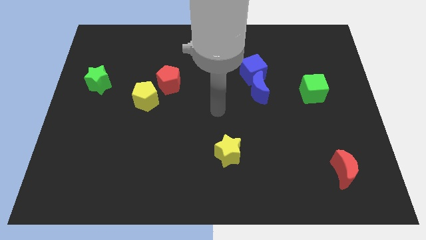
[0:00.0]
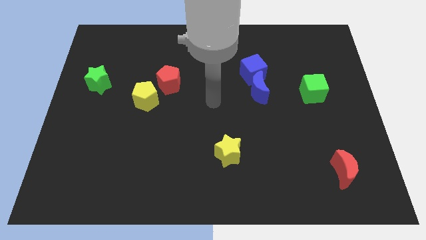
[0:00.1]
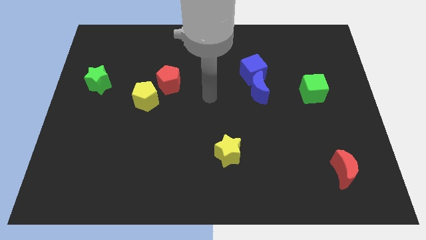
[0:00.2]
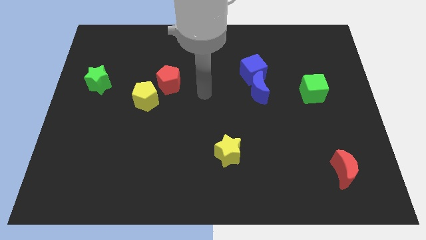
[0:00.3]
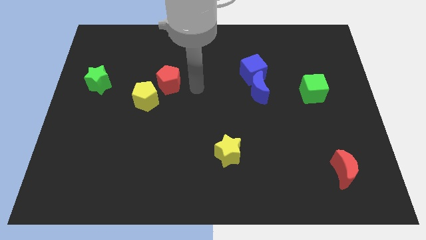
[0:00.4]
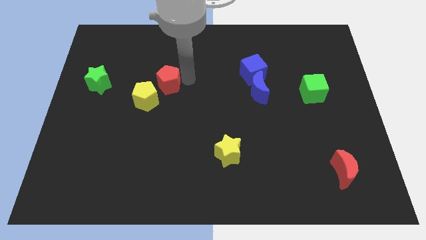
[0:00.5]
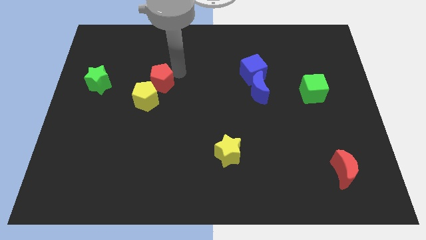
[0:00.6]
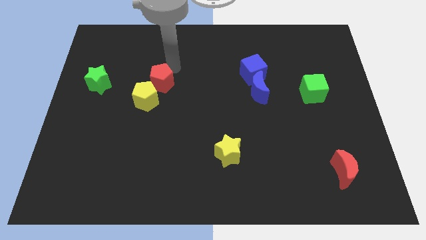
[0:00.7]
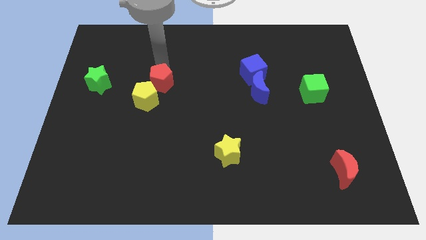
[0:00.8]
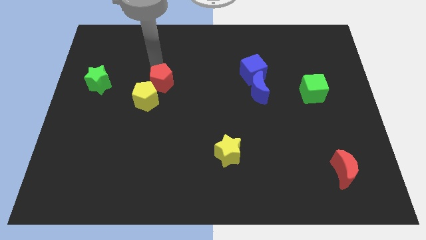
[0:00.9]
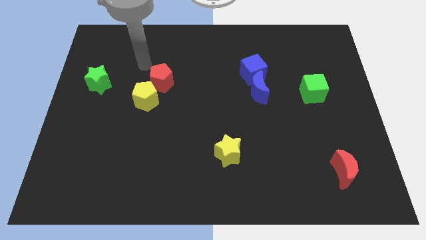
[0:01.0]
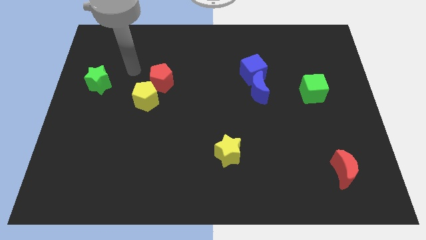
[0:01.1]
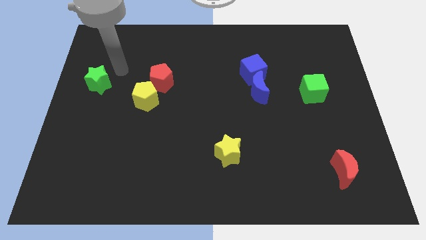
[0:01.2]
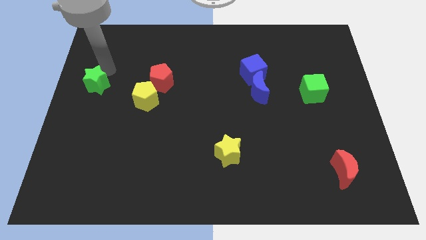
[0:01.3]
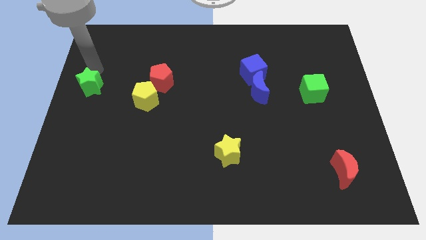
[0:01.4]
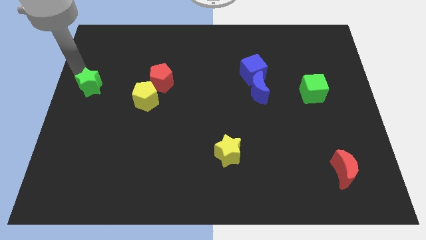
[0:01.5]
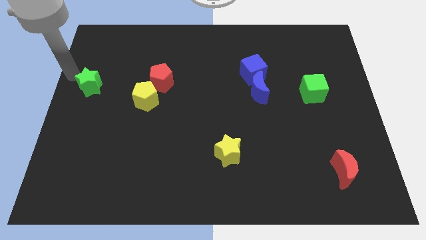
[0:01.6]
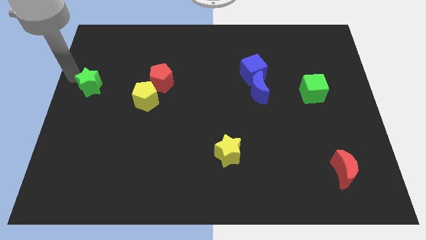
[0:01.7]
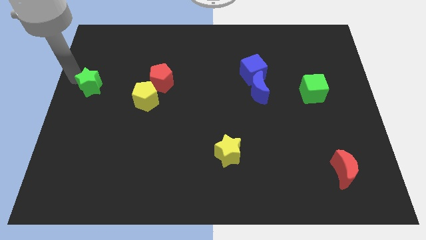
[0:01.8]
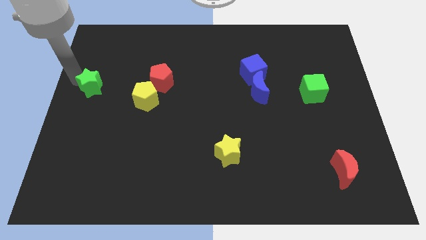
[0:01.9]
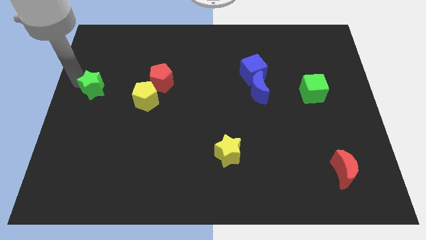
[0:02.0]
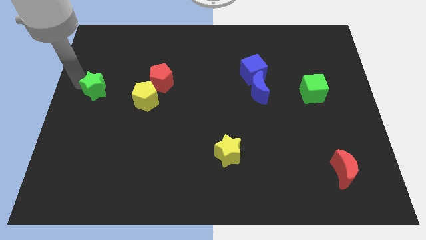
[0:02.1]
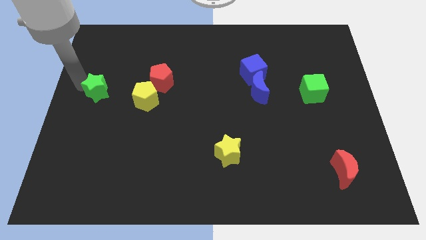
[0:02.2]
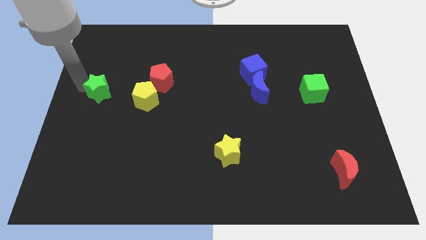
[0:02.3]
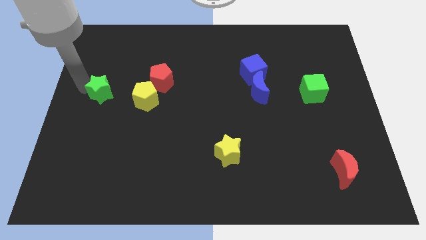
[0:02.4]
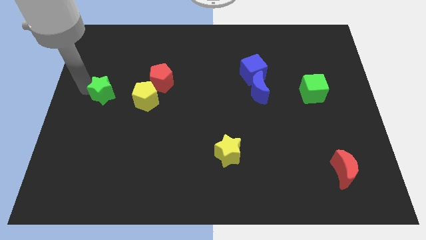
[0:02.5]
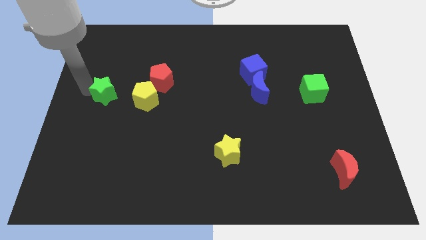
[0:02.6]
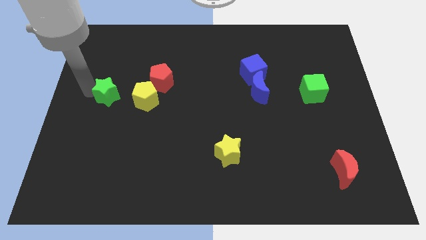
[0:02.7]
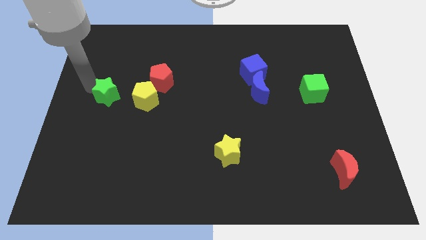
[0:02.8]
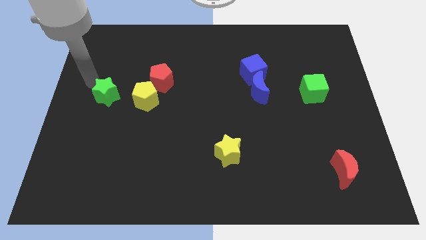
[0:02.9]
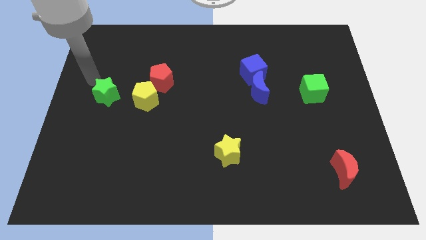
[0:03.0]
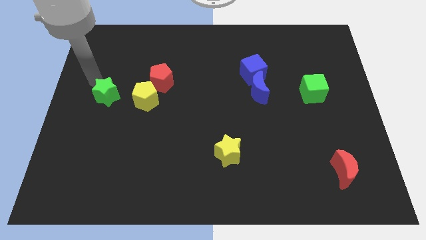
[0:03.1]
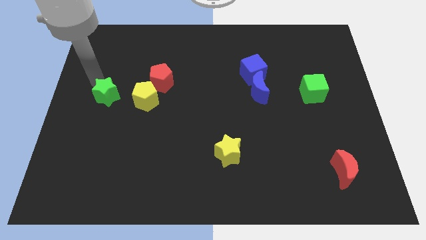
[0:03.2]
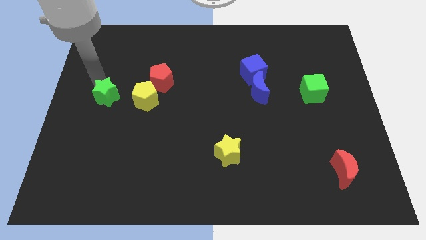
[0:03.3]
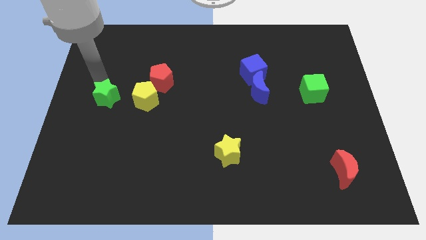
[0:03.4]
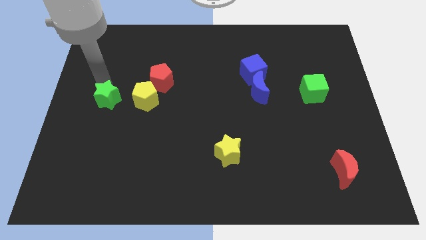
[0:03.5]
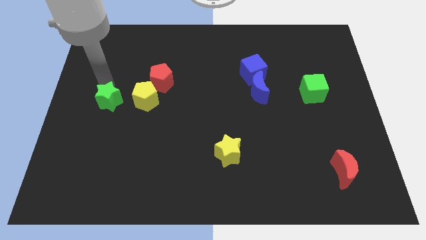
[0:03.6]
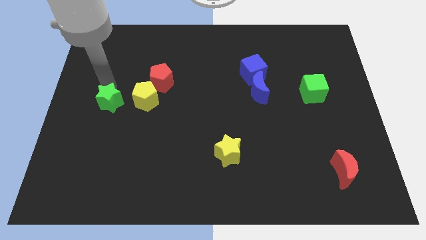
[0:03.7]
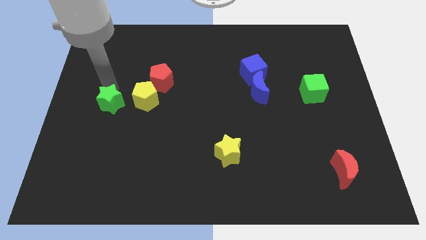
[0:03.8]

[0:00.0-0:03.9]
slightly push the green star downwards and to the right

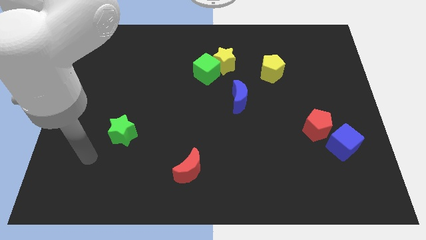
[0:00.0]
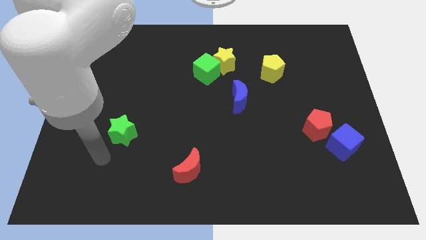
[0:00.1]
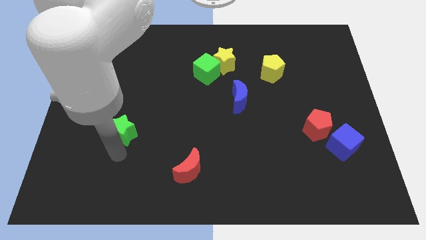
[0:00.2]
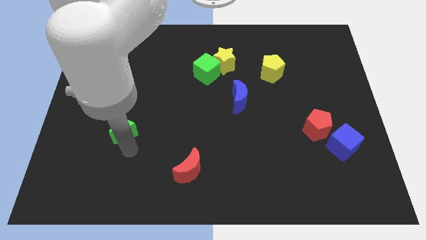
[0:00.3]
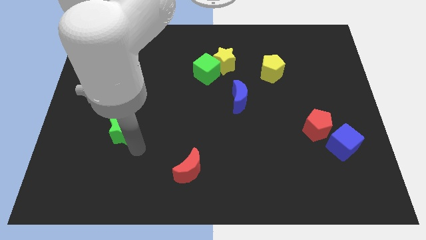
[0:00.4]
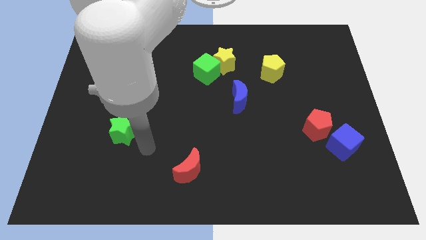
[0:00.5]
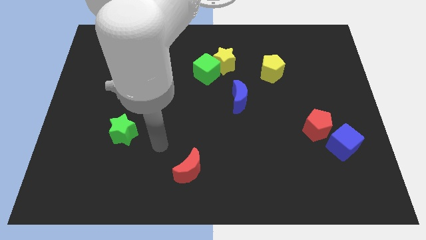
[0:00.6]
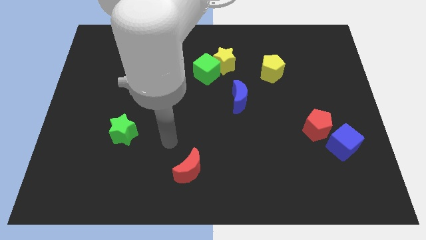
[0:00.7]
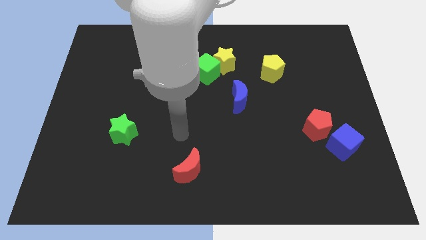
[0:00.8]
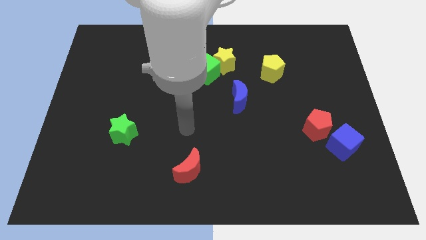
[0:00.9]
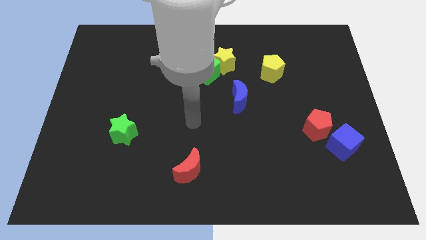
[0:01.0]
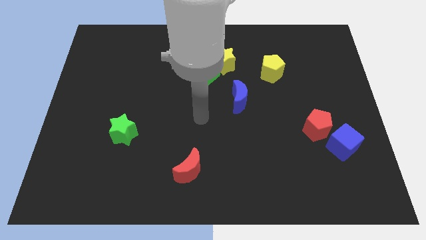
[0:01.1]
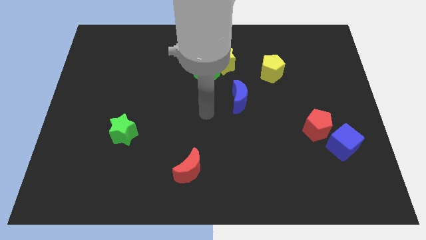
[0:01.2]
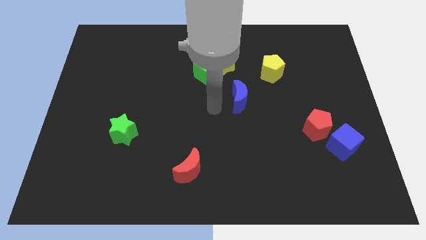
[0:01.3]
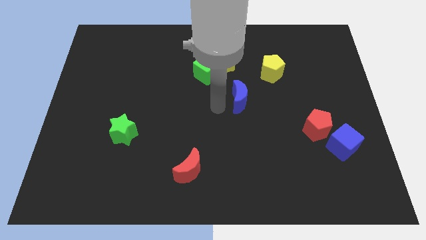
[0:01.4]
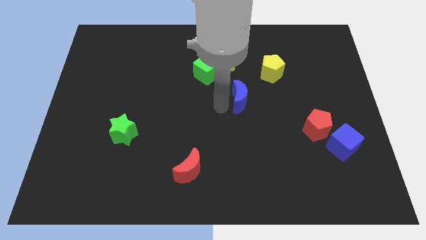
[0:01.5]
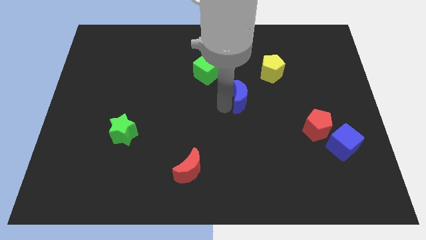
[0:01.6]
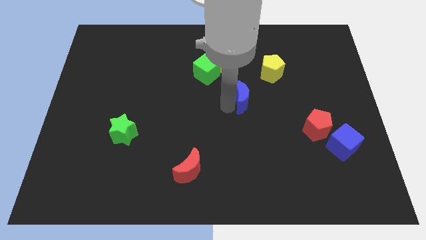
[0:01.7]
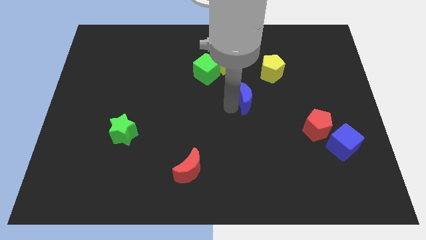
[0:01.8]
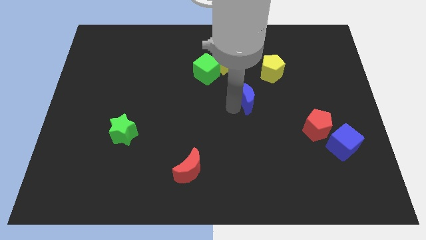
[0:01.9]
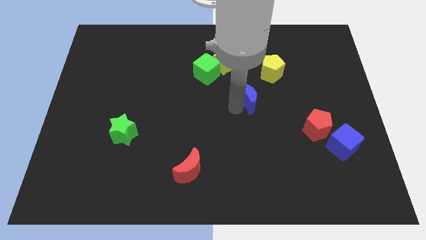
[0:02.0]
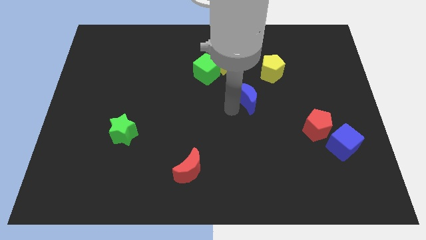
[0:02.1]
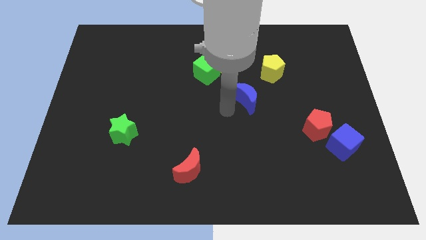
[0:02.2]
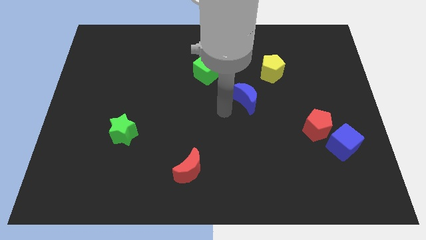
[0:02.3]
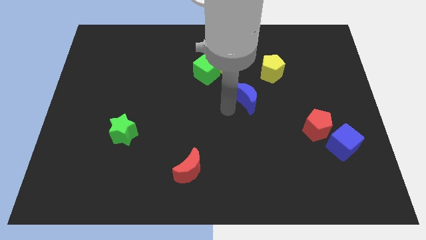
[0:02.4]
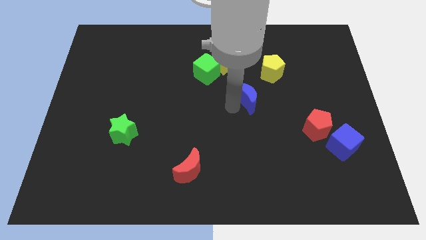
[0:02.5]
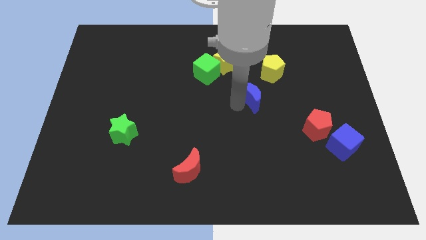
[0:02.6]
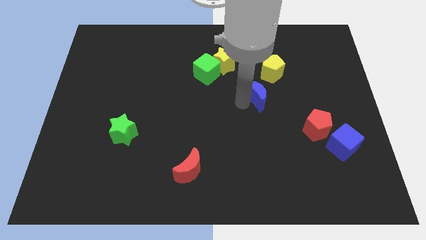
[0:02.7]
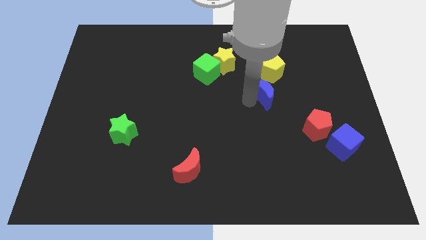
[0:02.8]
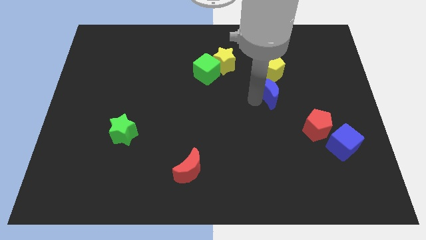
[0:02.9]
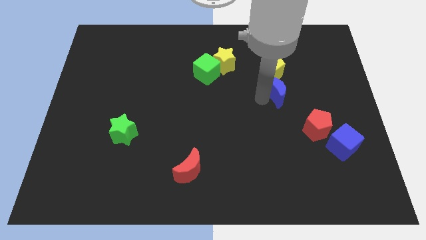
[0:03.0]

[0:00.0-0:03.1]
slide the blue moon diagonally up and right a bit

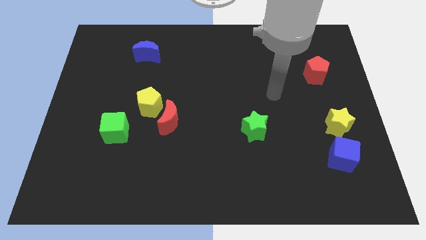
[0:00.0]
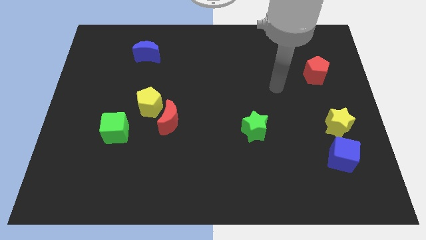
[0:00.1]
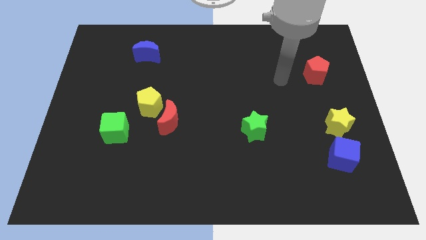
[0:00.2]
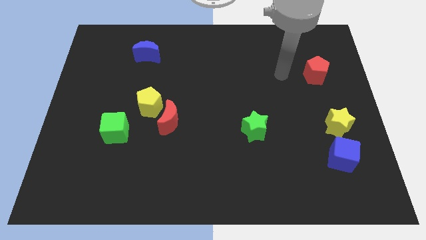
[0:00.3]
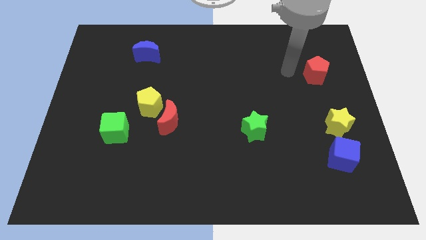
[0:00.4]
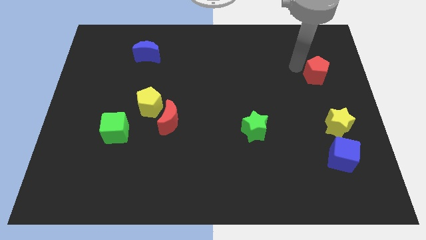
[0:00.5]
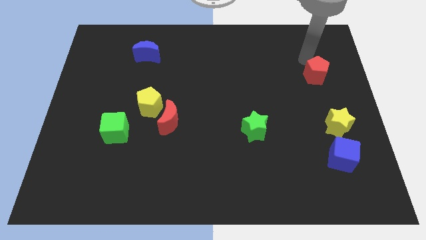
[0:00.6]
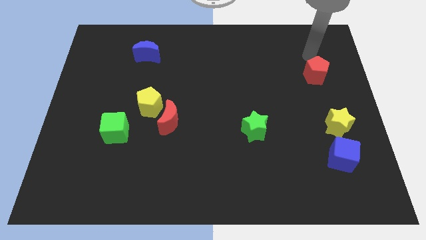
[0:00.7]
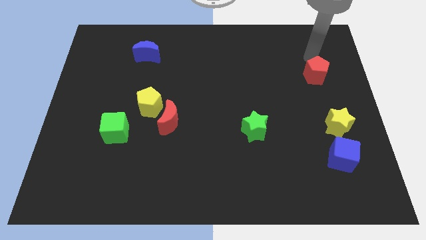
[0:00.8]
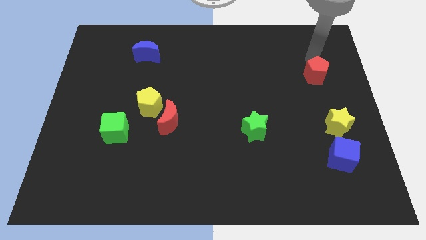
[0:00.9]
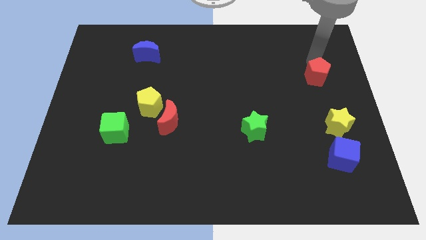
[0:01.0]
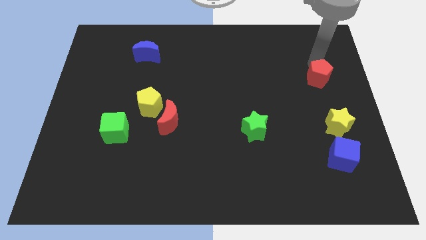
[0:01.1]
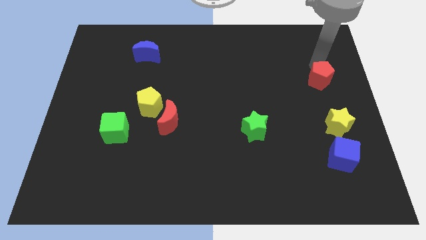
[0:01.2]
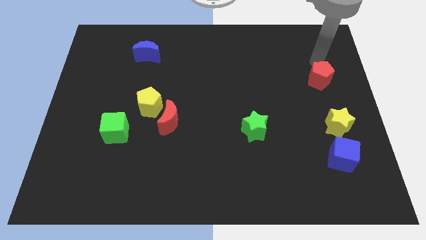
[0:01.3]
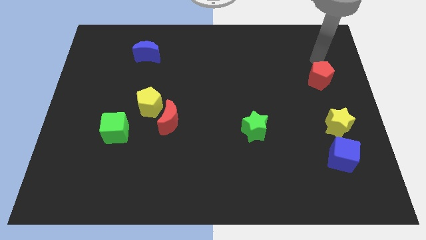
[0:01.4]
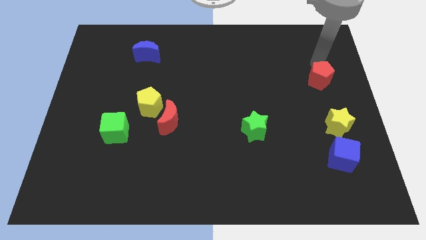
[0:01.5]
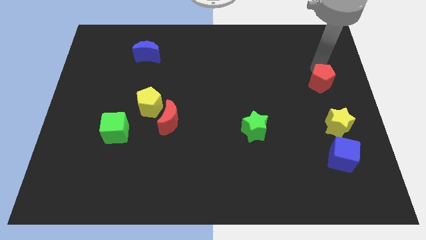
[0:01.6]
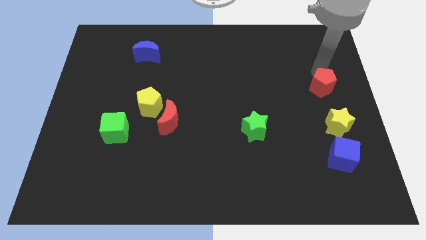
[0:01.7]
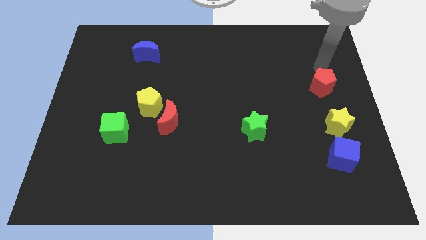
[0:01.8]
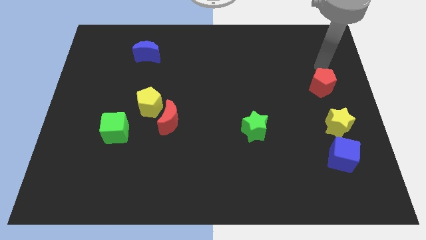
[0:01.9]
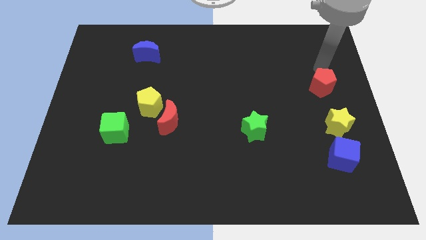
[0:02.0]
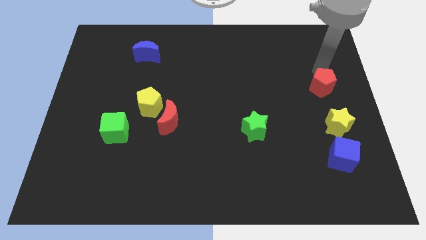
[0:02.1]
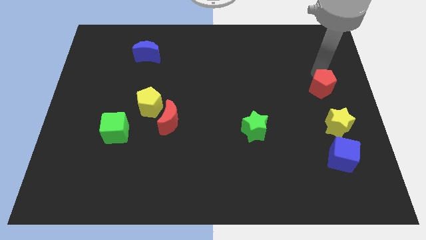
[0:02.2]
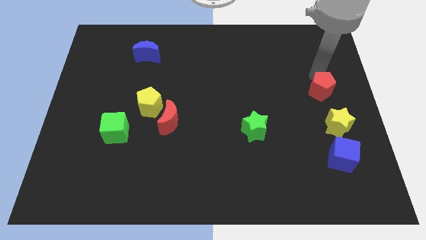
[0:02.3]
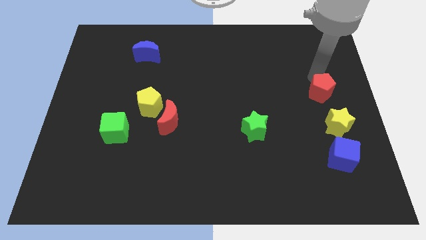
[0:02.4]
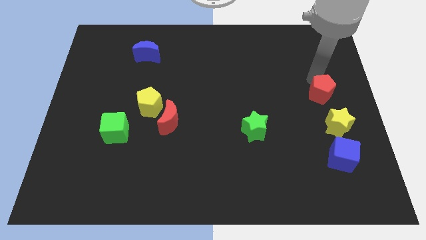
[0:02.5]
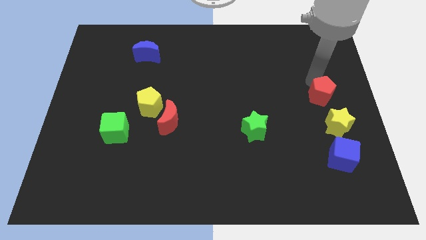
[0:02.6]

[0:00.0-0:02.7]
slightly move the red pentagon downwards
